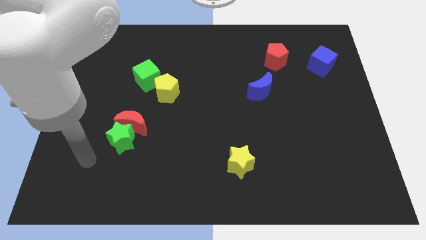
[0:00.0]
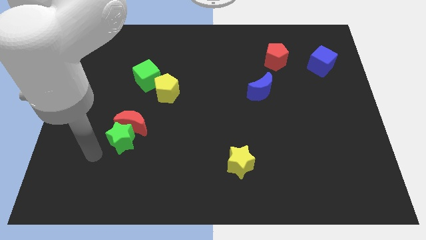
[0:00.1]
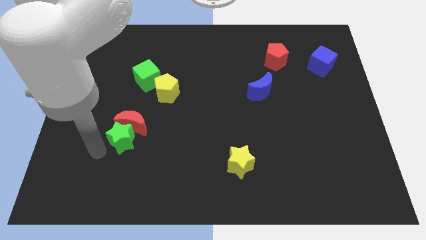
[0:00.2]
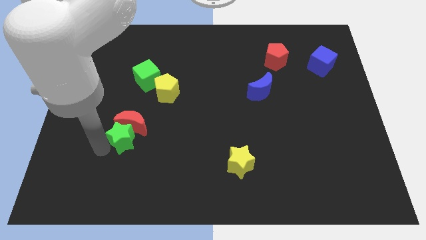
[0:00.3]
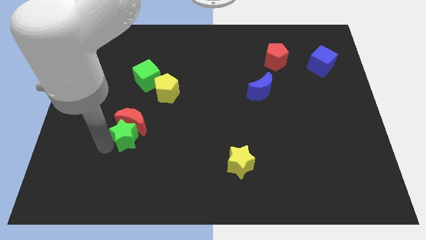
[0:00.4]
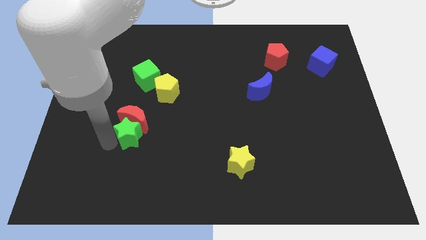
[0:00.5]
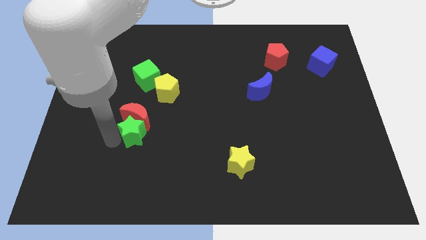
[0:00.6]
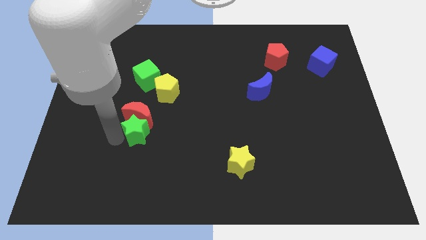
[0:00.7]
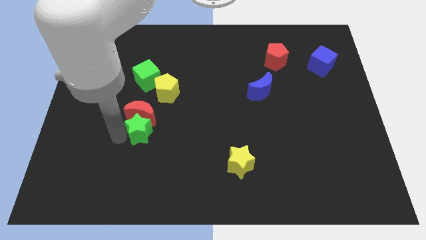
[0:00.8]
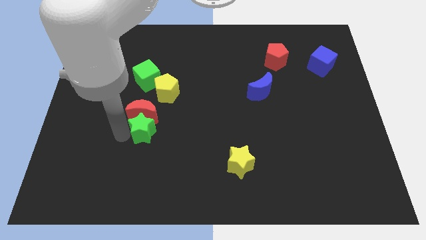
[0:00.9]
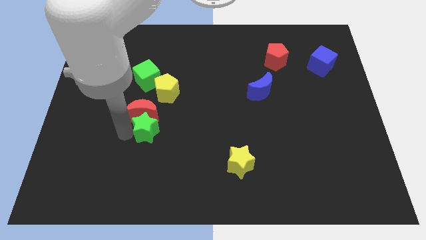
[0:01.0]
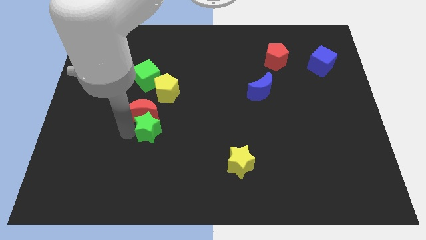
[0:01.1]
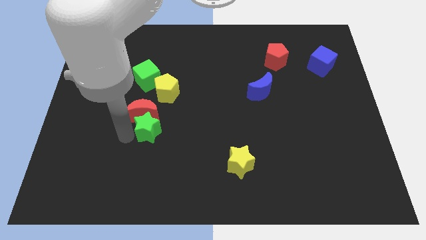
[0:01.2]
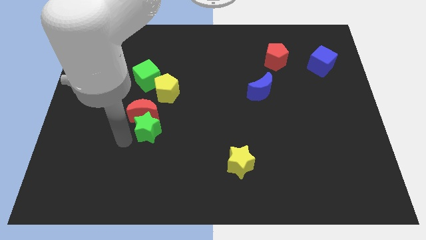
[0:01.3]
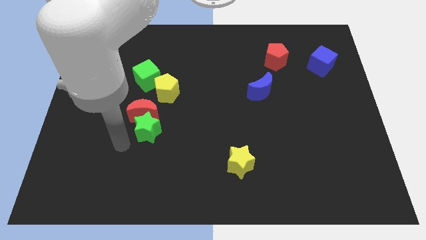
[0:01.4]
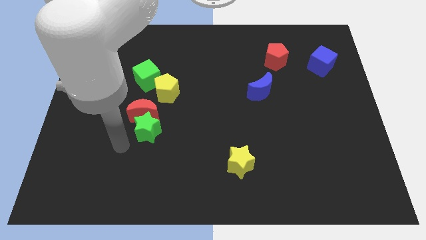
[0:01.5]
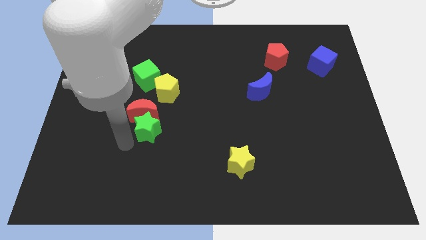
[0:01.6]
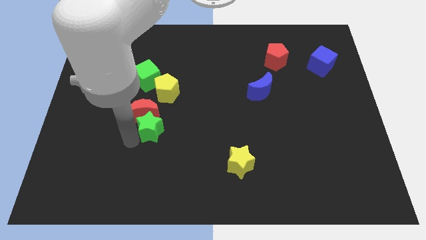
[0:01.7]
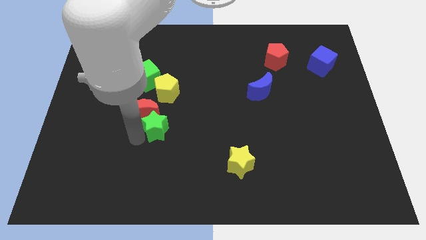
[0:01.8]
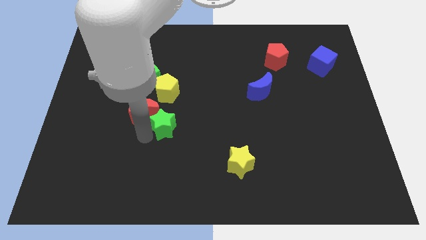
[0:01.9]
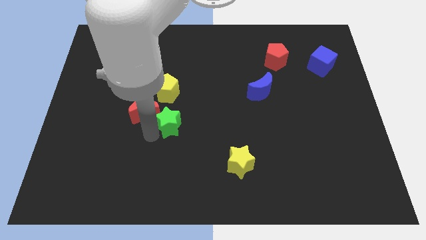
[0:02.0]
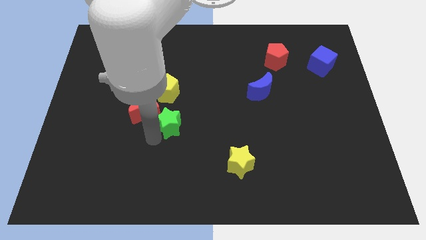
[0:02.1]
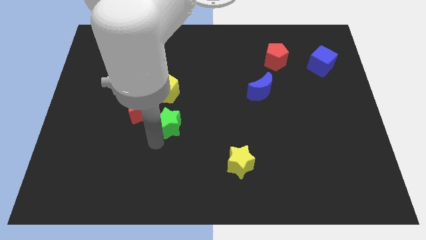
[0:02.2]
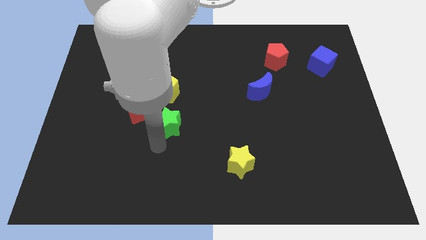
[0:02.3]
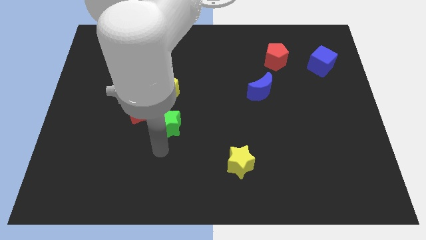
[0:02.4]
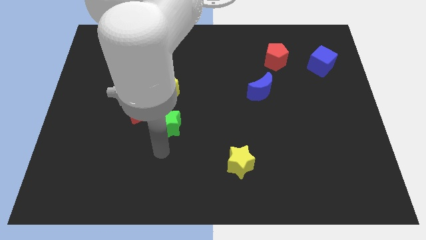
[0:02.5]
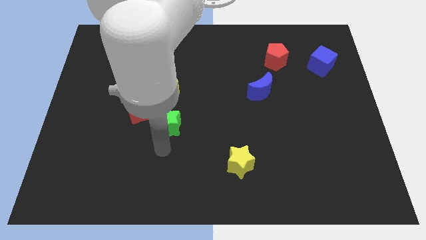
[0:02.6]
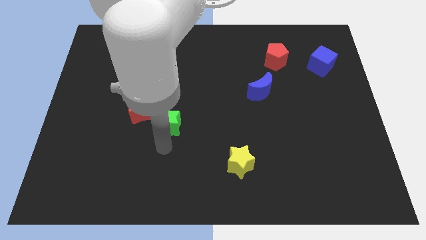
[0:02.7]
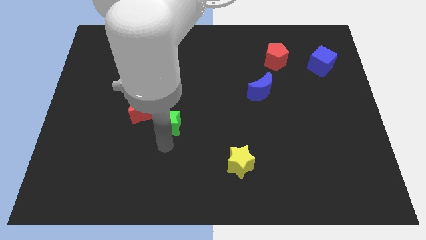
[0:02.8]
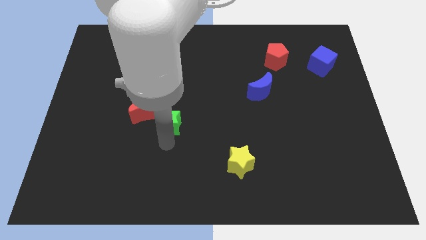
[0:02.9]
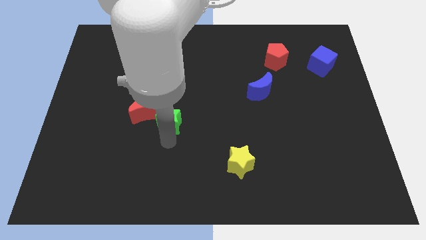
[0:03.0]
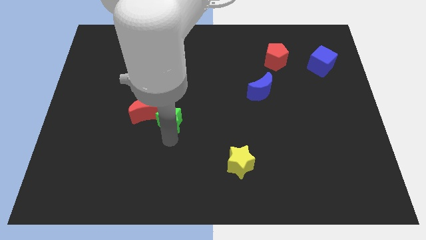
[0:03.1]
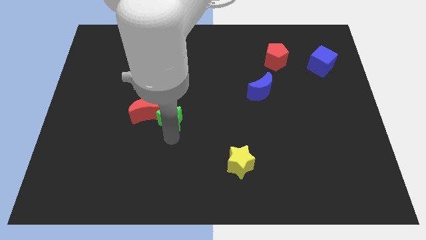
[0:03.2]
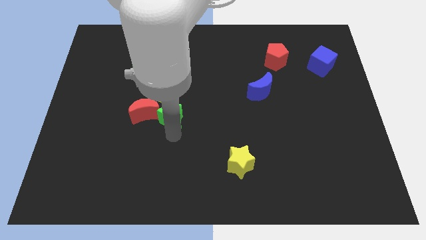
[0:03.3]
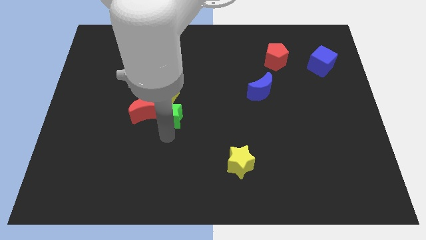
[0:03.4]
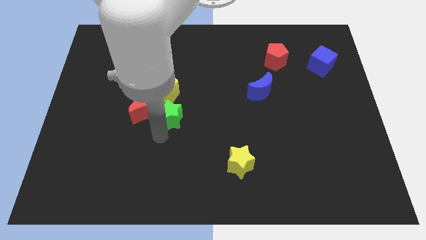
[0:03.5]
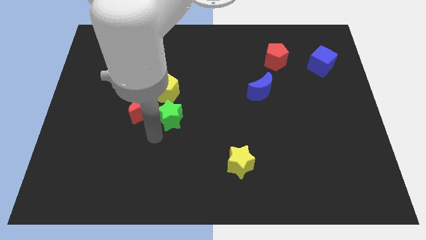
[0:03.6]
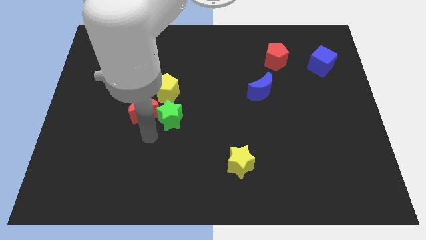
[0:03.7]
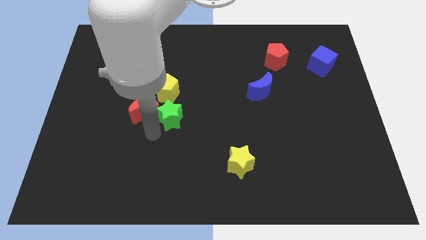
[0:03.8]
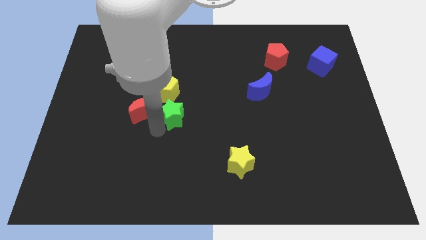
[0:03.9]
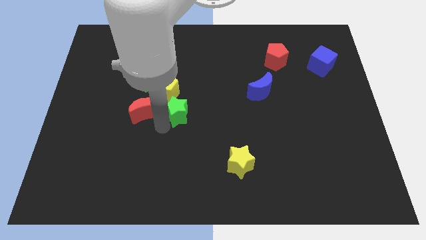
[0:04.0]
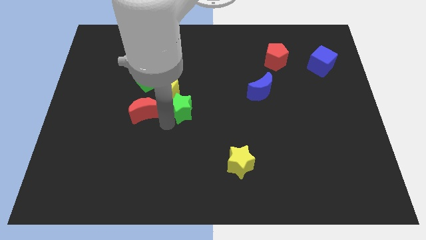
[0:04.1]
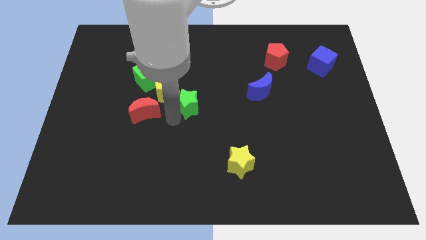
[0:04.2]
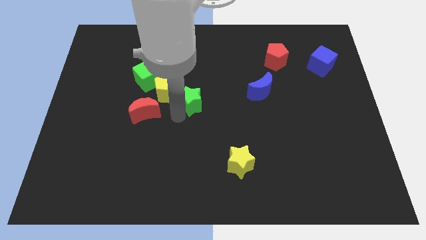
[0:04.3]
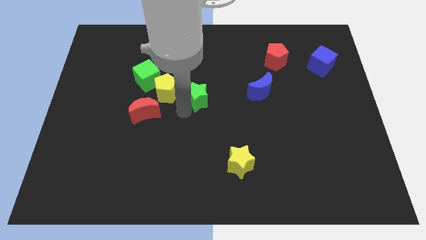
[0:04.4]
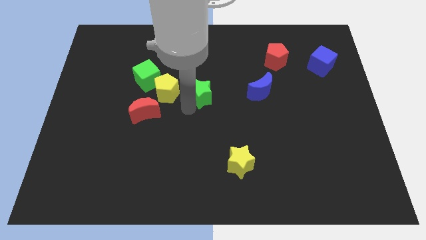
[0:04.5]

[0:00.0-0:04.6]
move the green star up and to the right

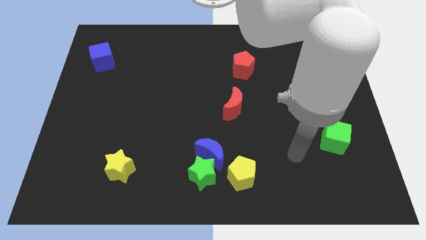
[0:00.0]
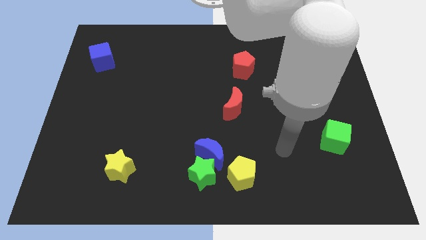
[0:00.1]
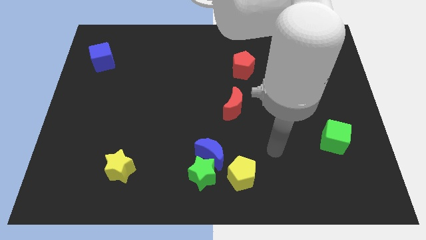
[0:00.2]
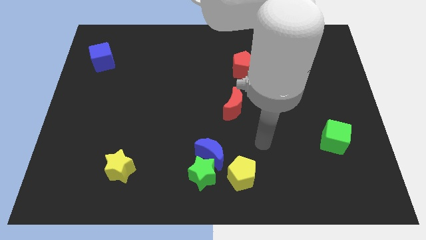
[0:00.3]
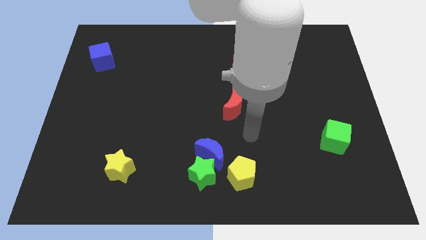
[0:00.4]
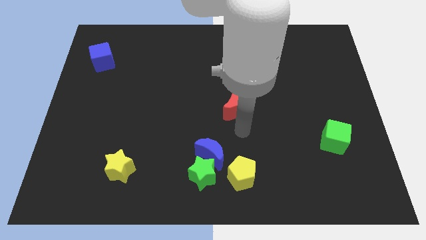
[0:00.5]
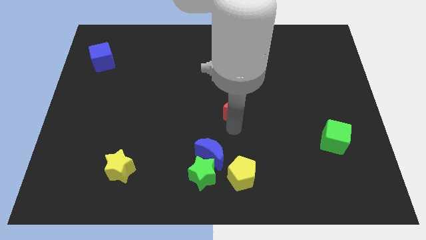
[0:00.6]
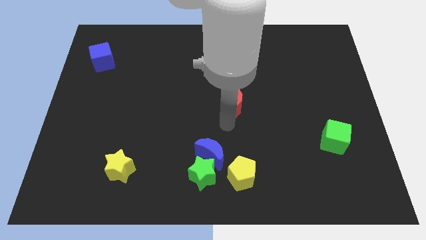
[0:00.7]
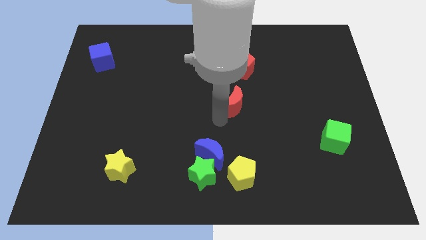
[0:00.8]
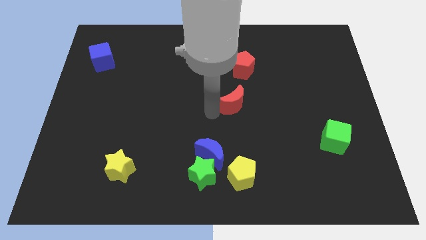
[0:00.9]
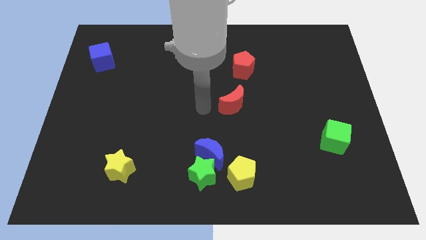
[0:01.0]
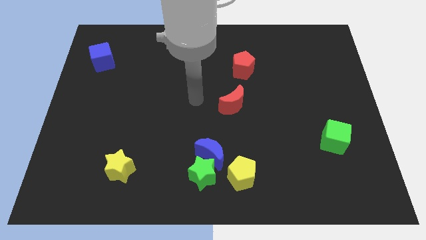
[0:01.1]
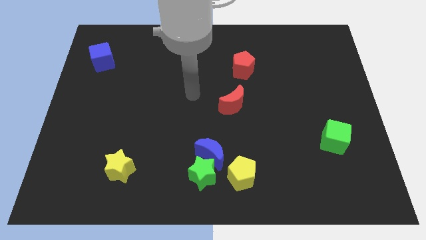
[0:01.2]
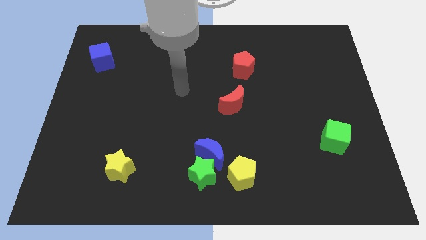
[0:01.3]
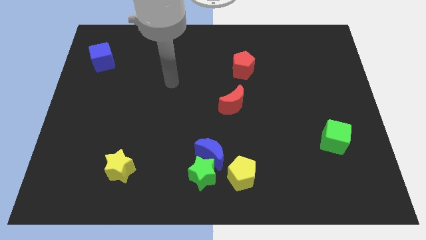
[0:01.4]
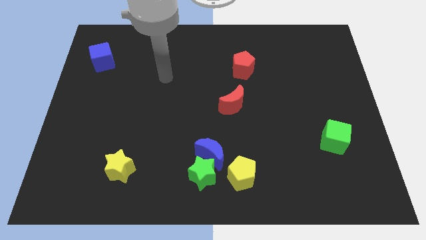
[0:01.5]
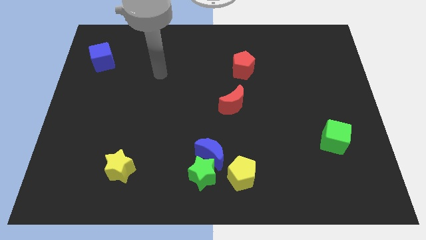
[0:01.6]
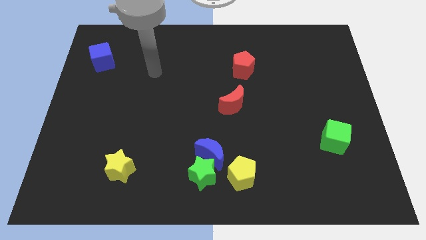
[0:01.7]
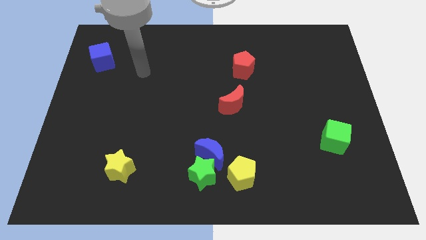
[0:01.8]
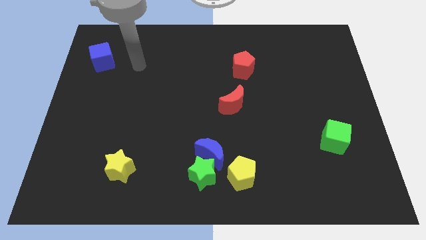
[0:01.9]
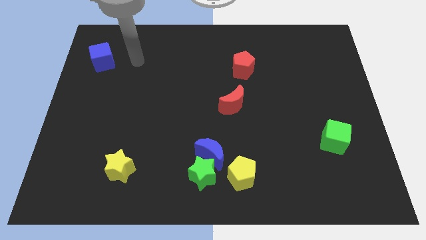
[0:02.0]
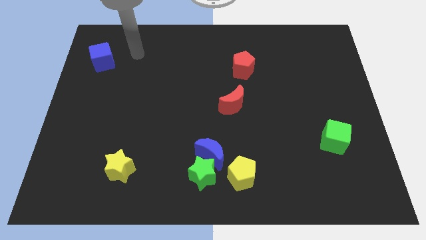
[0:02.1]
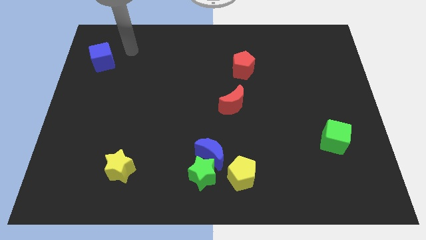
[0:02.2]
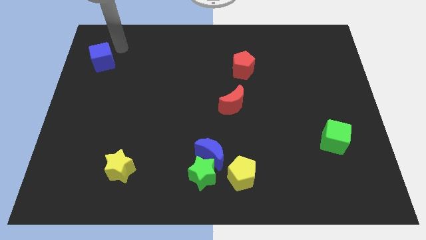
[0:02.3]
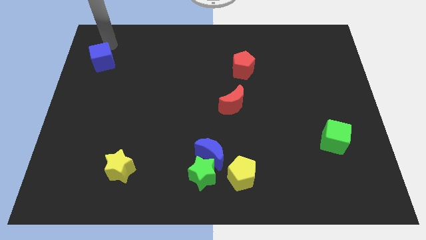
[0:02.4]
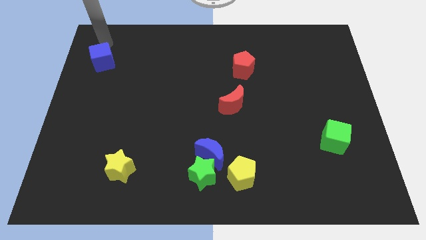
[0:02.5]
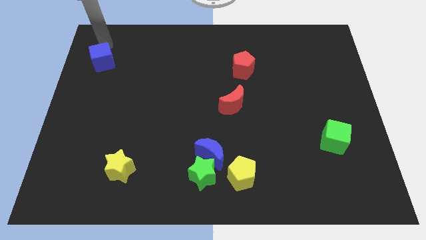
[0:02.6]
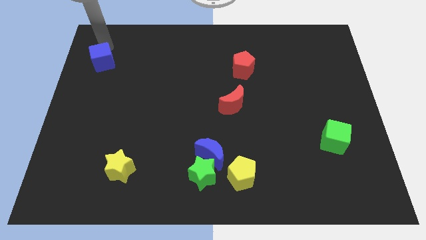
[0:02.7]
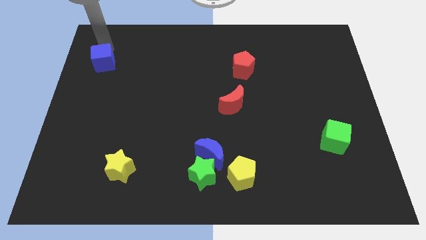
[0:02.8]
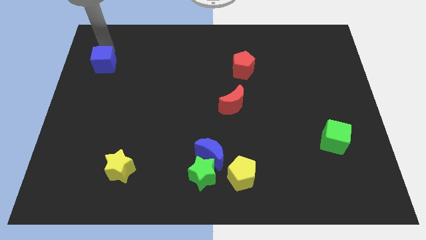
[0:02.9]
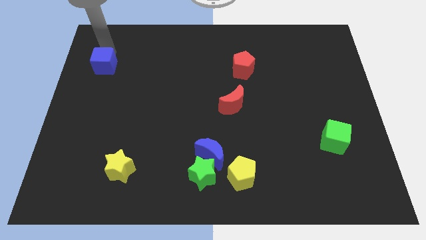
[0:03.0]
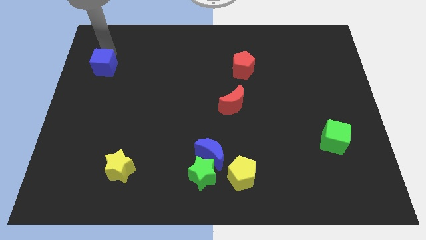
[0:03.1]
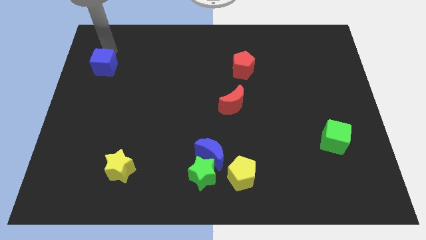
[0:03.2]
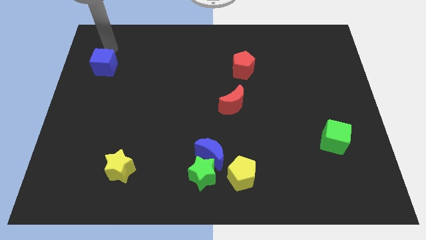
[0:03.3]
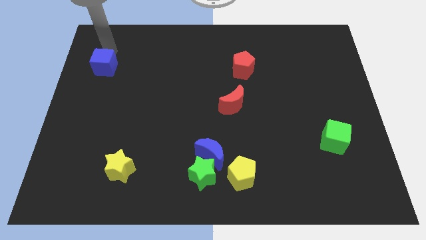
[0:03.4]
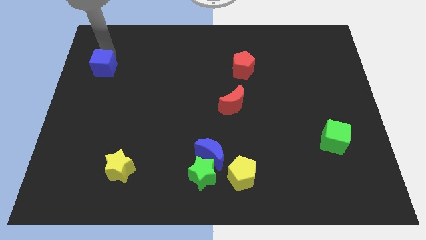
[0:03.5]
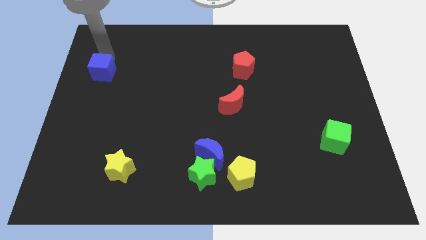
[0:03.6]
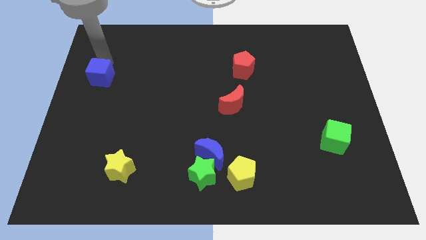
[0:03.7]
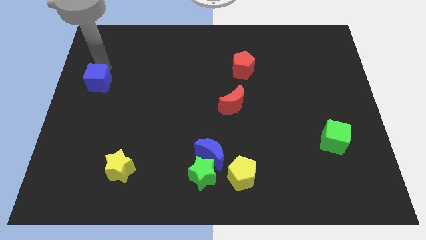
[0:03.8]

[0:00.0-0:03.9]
slightly push the blue cube downwards
